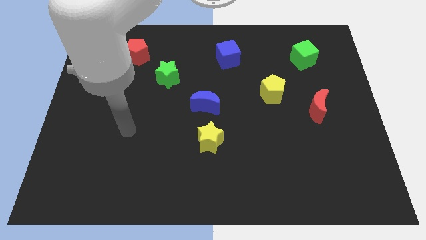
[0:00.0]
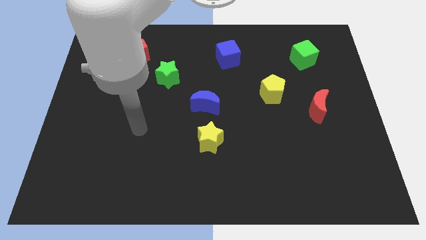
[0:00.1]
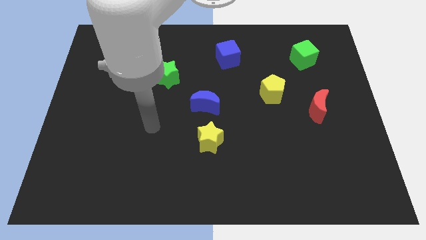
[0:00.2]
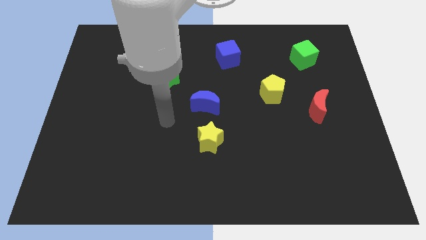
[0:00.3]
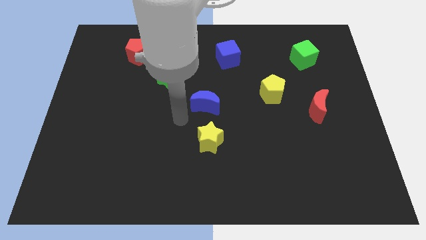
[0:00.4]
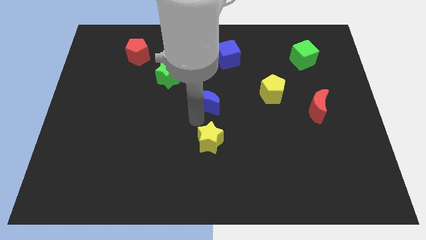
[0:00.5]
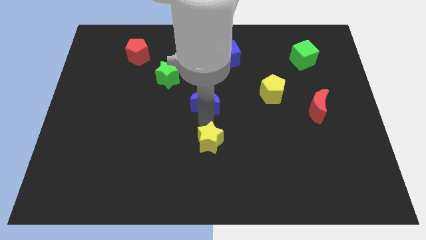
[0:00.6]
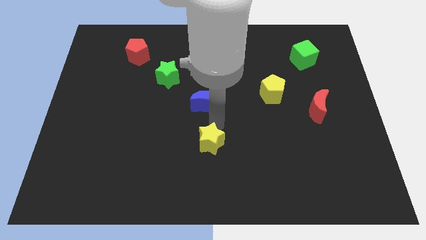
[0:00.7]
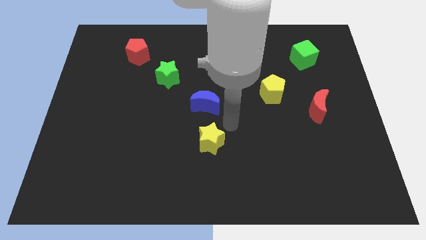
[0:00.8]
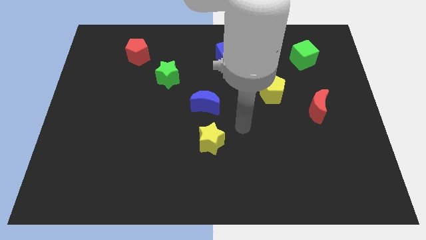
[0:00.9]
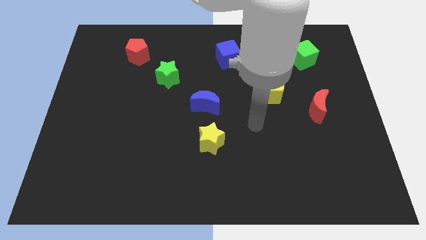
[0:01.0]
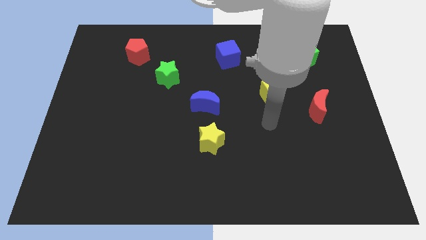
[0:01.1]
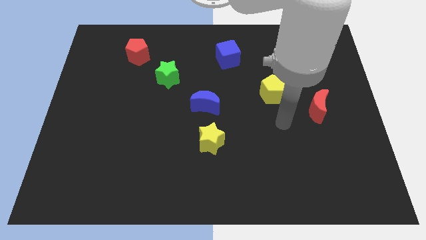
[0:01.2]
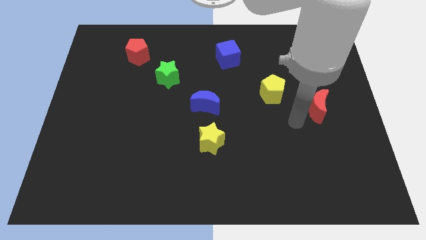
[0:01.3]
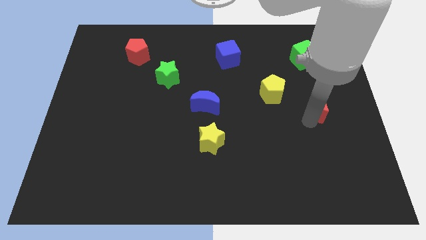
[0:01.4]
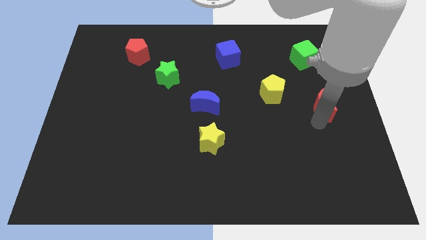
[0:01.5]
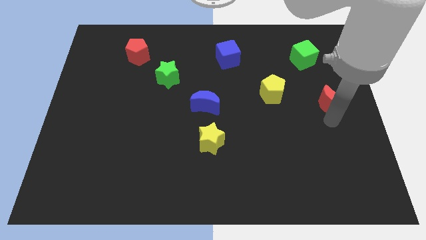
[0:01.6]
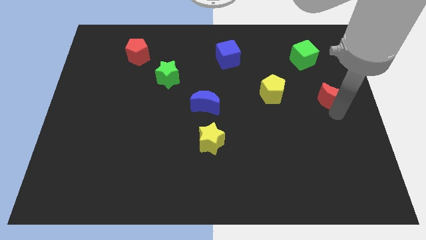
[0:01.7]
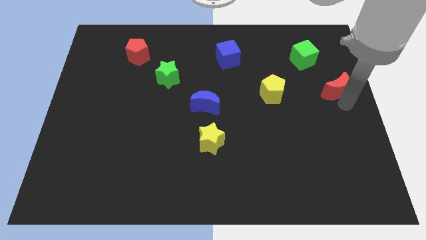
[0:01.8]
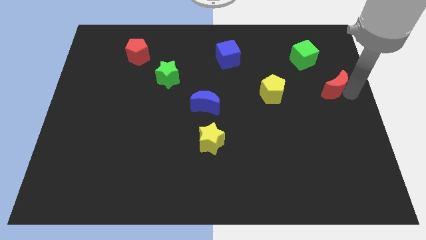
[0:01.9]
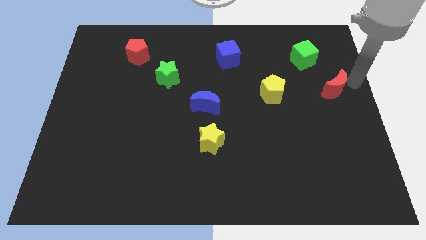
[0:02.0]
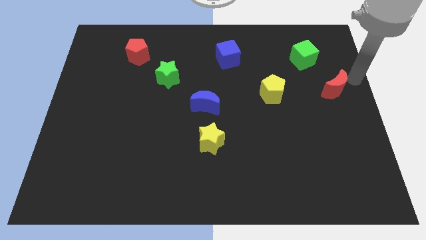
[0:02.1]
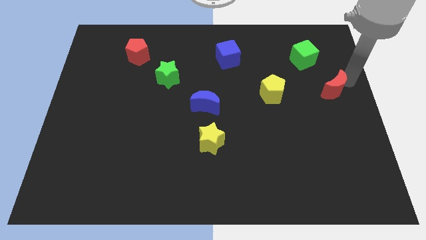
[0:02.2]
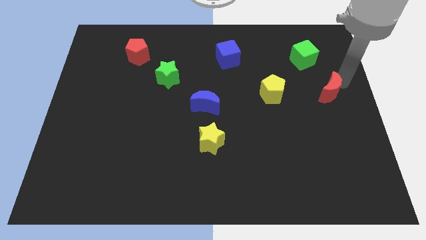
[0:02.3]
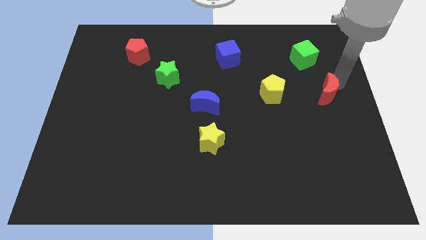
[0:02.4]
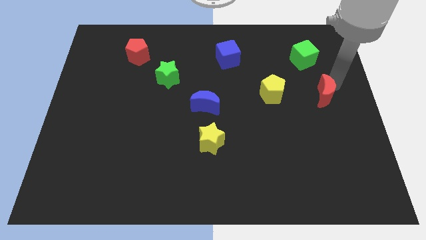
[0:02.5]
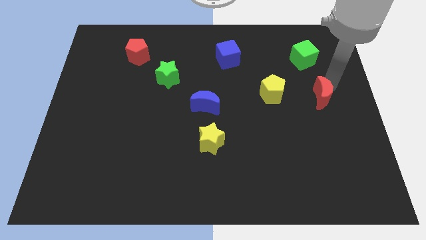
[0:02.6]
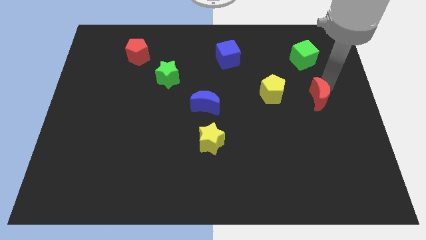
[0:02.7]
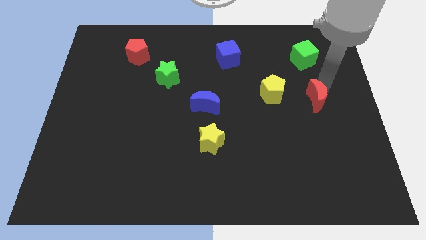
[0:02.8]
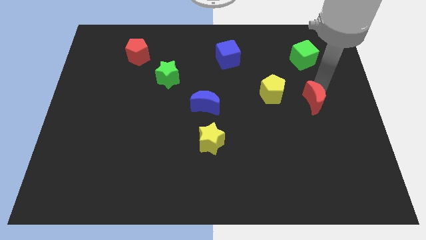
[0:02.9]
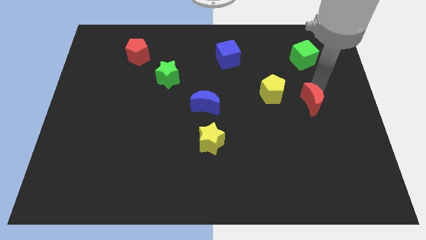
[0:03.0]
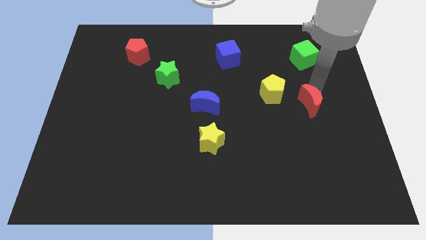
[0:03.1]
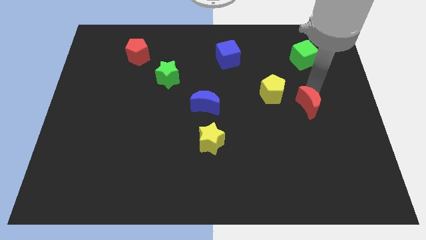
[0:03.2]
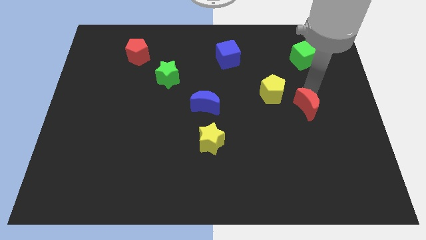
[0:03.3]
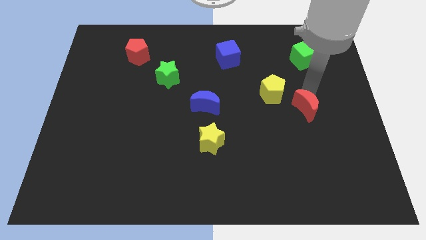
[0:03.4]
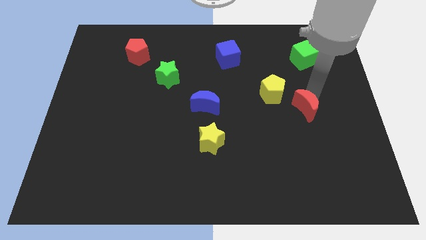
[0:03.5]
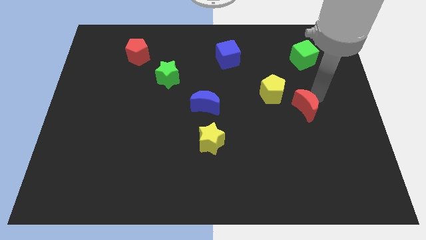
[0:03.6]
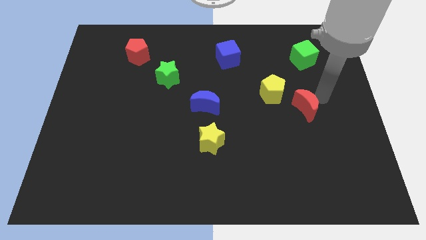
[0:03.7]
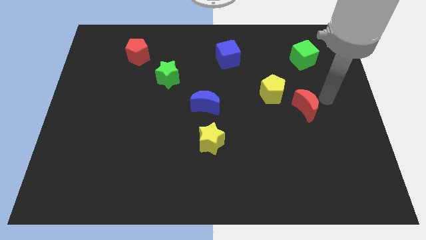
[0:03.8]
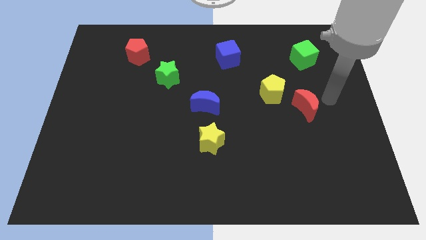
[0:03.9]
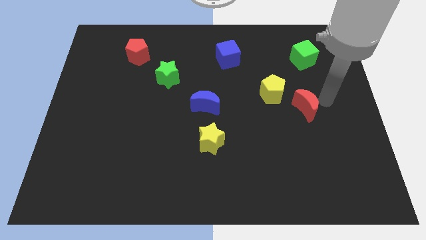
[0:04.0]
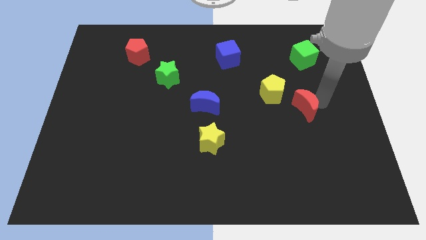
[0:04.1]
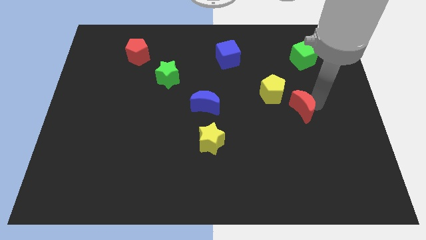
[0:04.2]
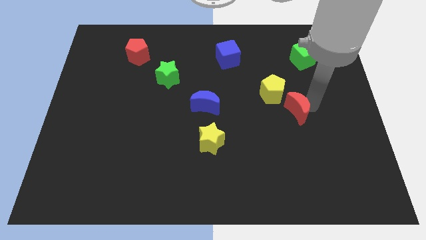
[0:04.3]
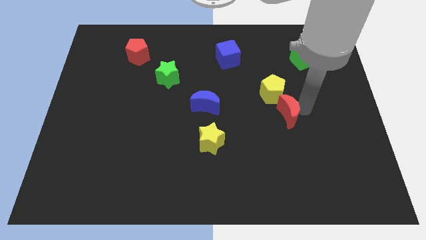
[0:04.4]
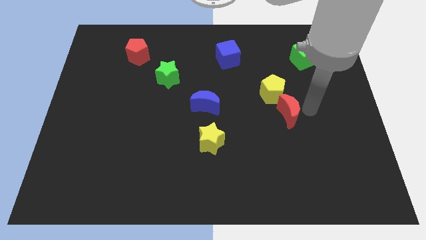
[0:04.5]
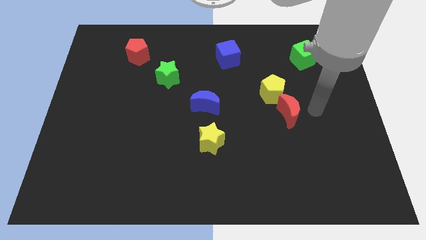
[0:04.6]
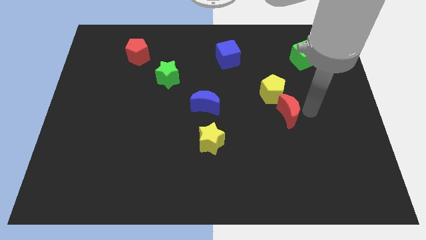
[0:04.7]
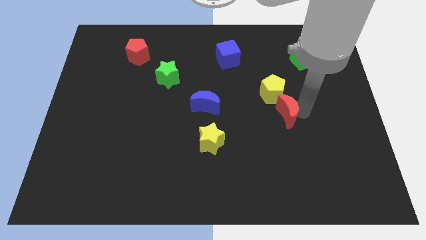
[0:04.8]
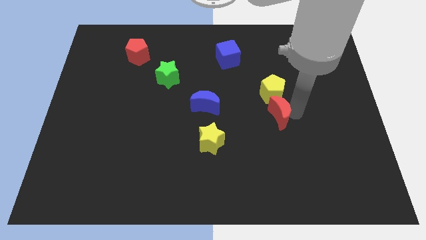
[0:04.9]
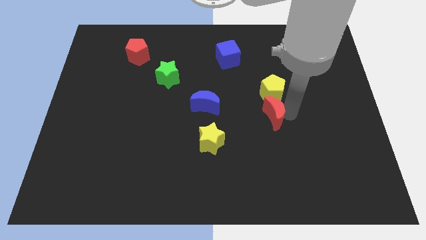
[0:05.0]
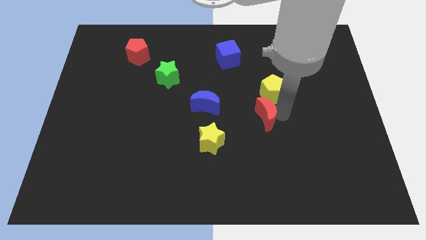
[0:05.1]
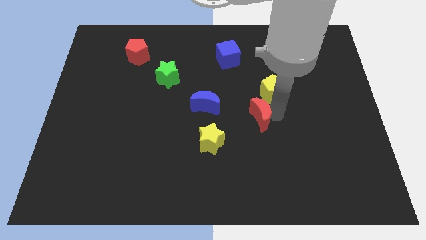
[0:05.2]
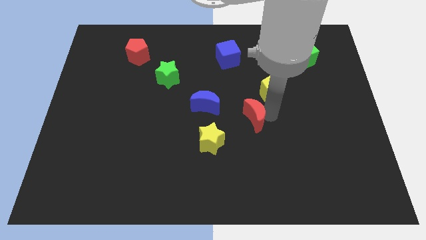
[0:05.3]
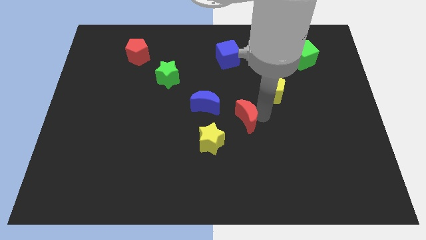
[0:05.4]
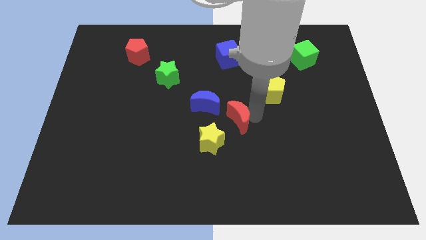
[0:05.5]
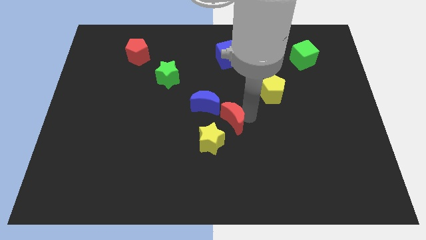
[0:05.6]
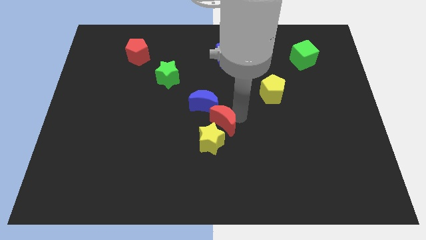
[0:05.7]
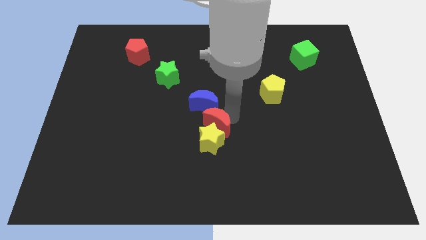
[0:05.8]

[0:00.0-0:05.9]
push the red moon towards the yellow star

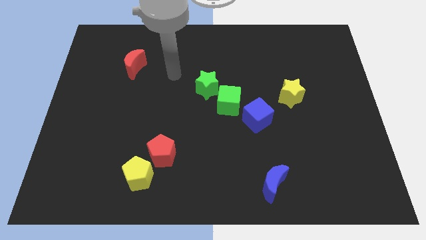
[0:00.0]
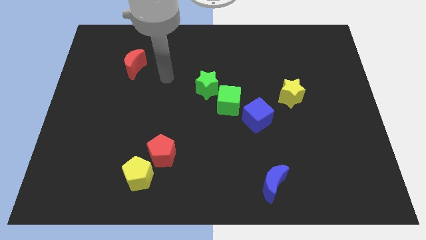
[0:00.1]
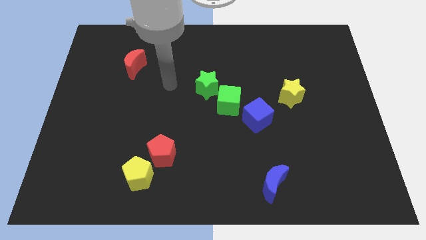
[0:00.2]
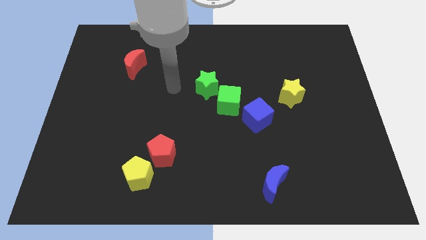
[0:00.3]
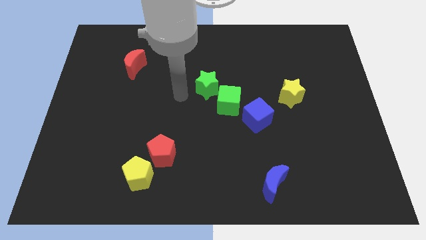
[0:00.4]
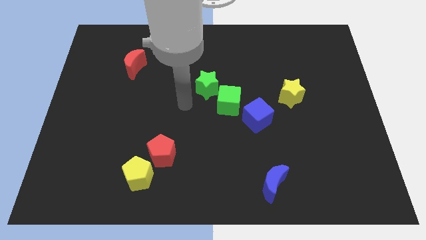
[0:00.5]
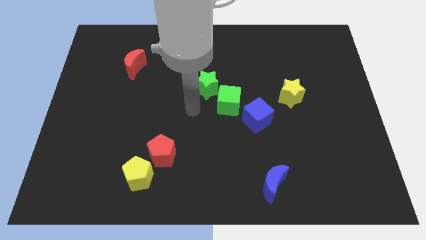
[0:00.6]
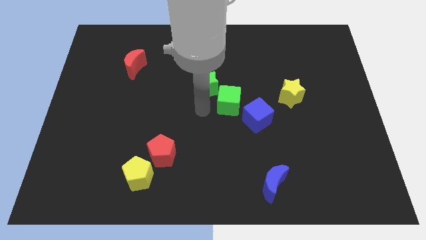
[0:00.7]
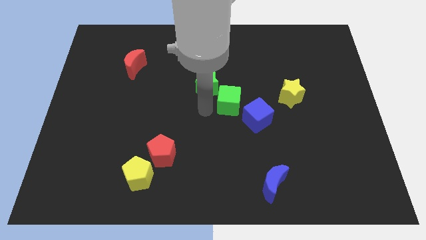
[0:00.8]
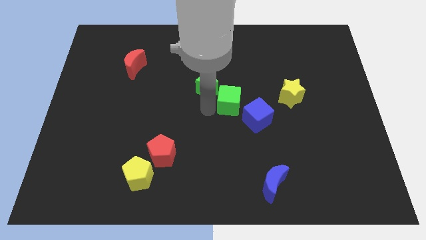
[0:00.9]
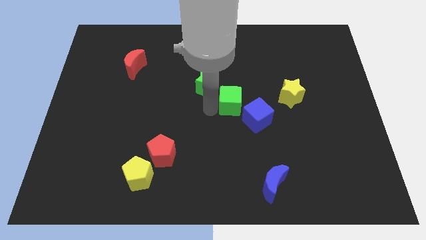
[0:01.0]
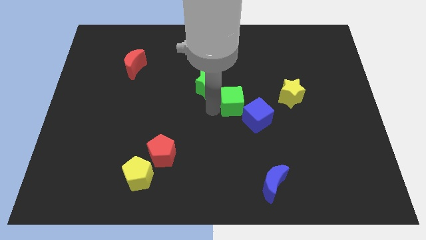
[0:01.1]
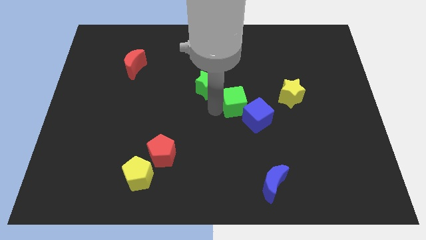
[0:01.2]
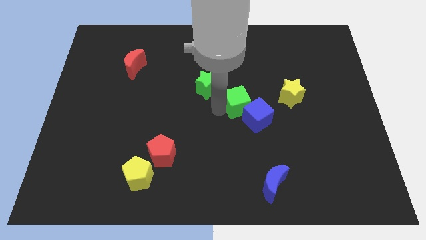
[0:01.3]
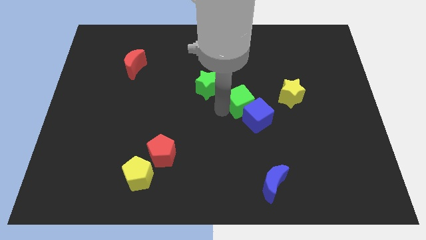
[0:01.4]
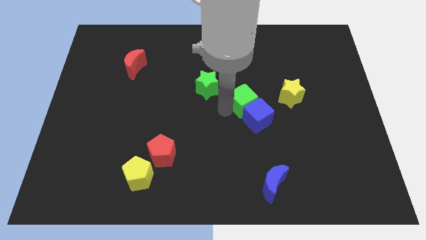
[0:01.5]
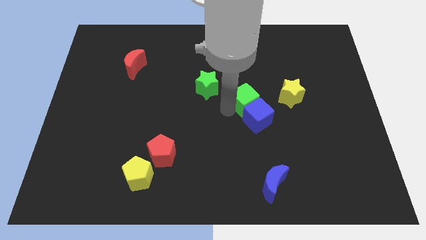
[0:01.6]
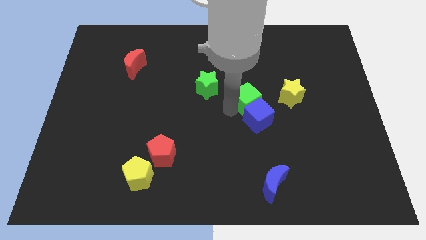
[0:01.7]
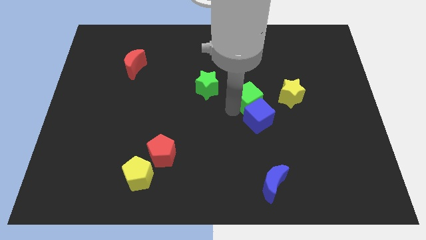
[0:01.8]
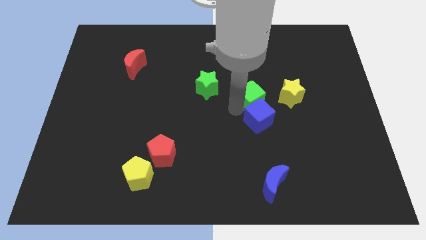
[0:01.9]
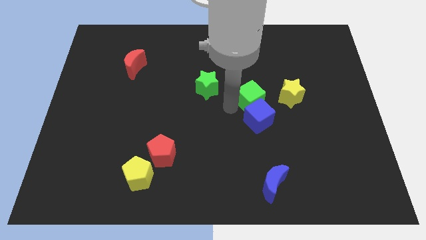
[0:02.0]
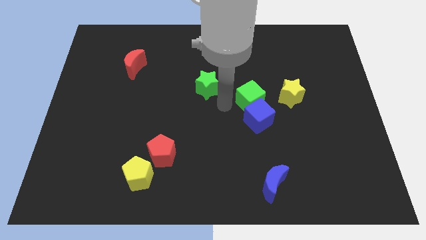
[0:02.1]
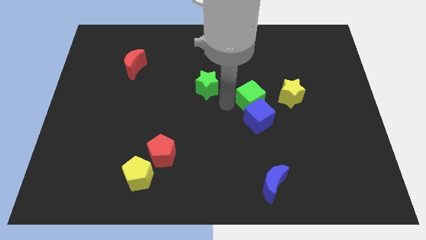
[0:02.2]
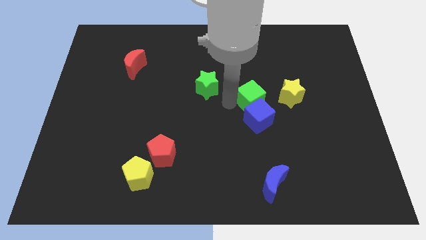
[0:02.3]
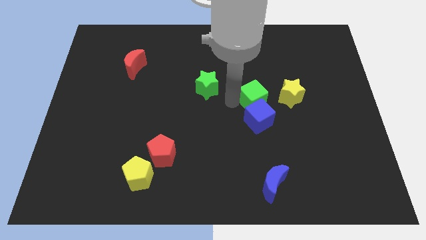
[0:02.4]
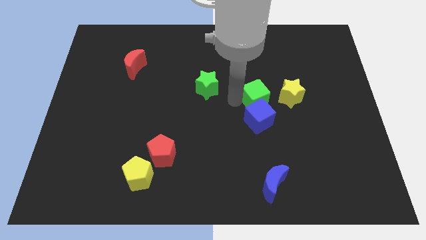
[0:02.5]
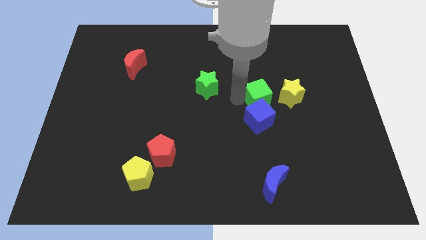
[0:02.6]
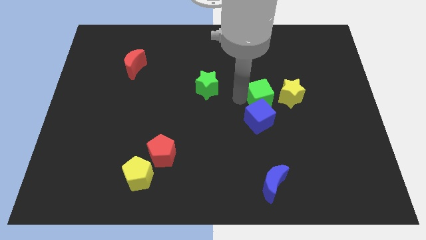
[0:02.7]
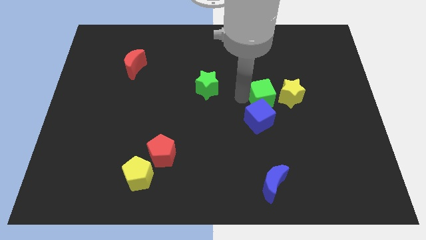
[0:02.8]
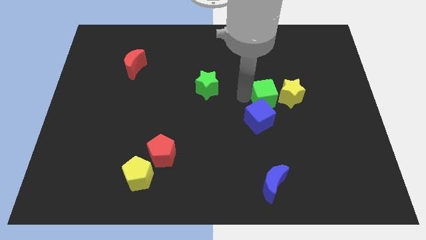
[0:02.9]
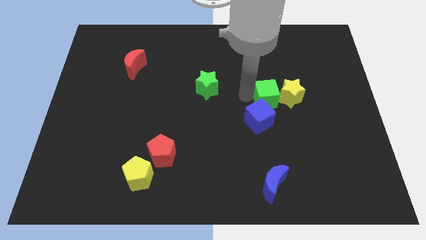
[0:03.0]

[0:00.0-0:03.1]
move the green cube towards the yellow star
